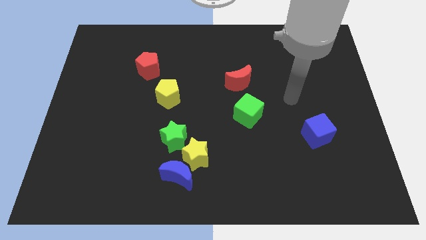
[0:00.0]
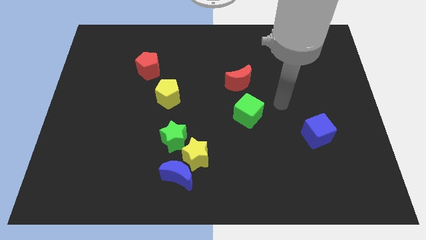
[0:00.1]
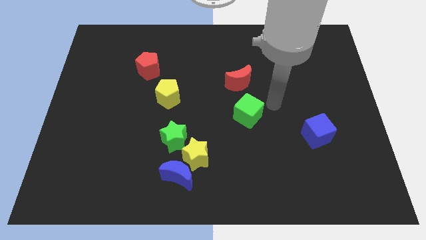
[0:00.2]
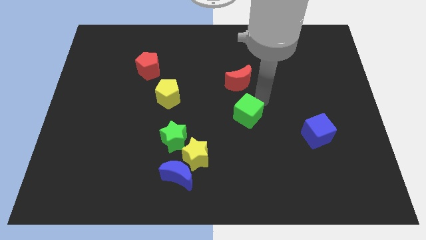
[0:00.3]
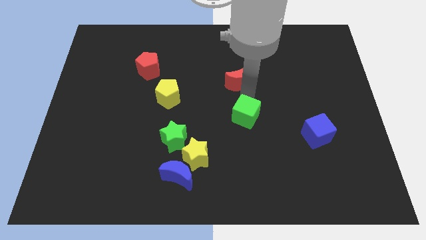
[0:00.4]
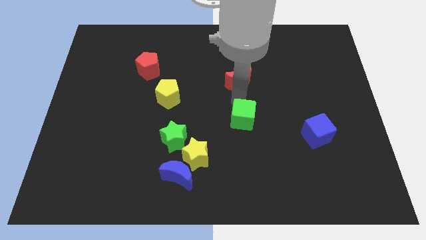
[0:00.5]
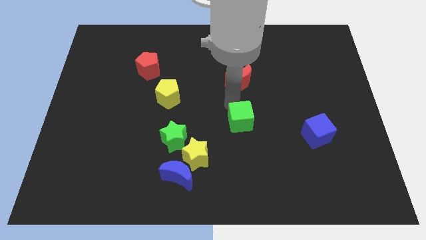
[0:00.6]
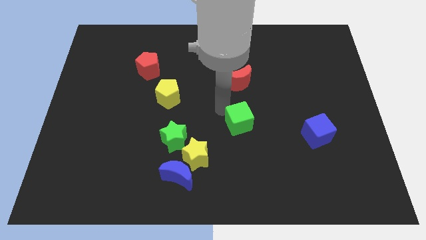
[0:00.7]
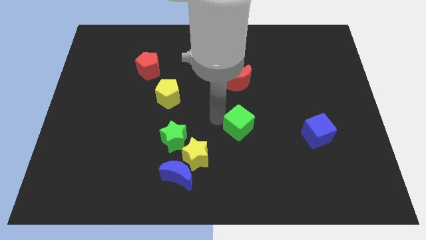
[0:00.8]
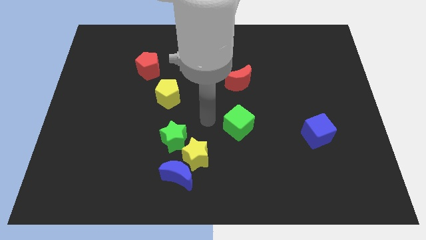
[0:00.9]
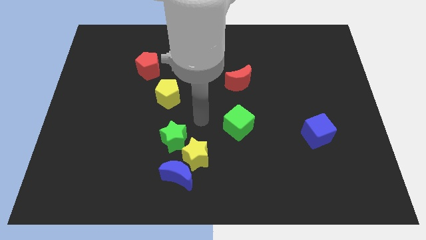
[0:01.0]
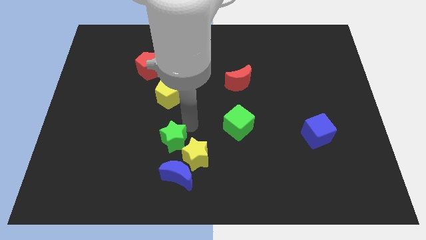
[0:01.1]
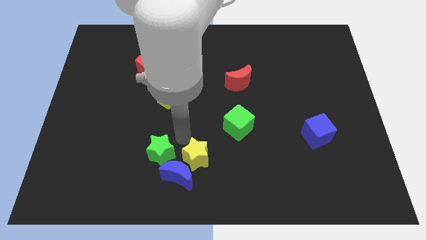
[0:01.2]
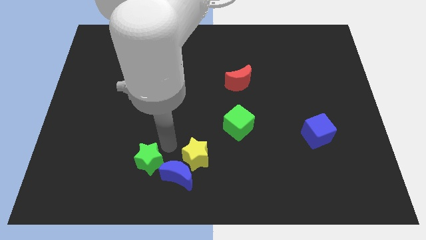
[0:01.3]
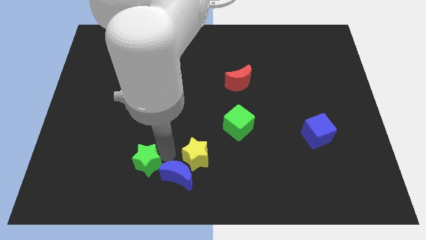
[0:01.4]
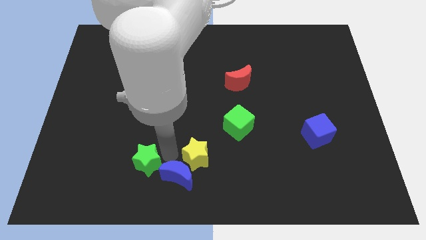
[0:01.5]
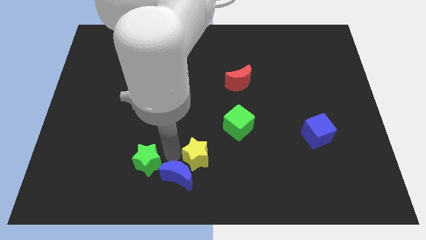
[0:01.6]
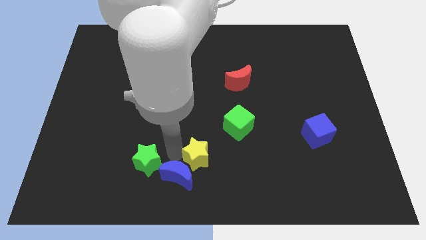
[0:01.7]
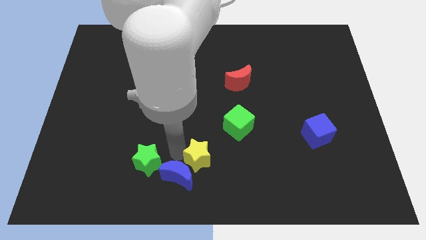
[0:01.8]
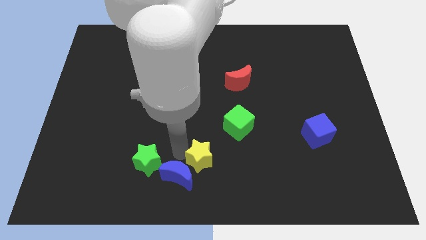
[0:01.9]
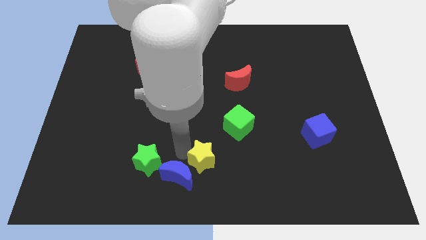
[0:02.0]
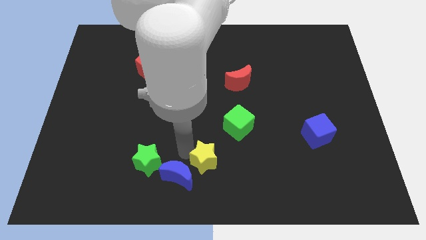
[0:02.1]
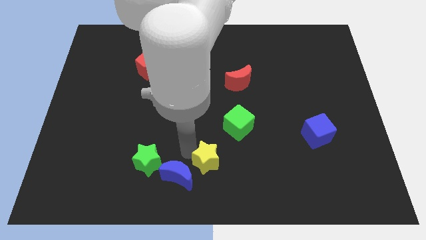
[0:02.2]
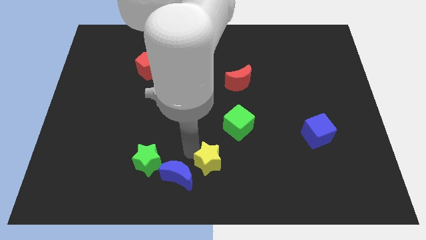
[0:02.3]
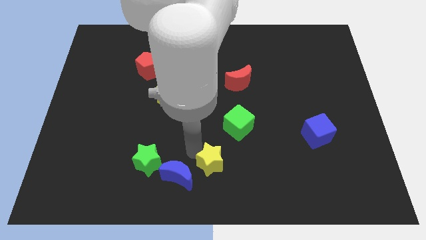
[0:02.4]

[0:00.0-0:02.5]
move the yellow star away from the blue moon and green star

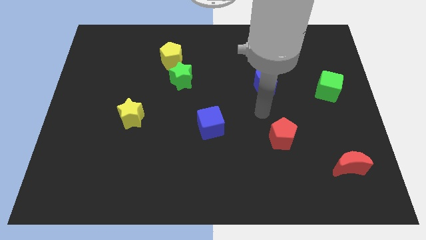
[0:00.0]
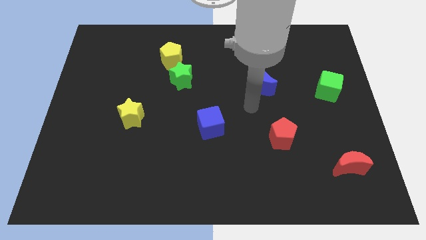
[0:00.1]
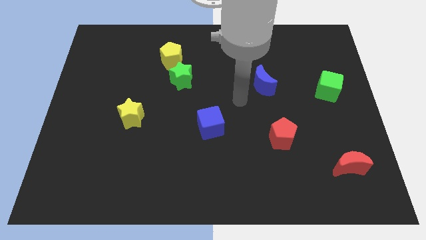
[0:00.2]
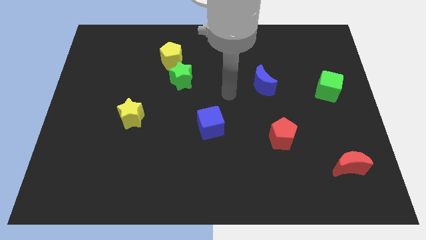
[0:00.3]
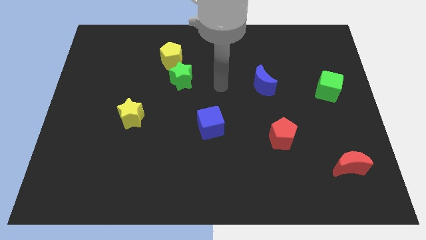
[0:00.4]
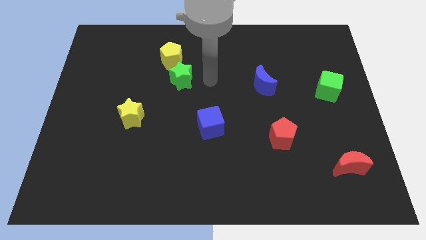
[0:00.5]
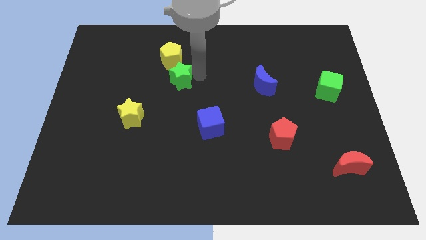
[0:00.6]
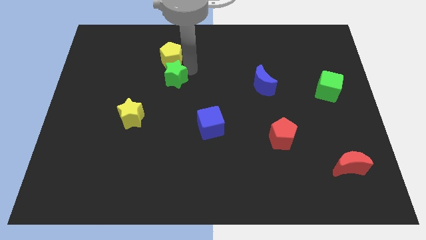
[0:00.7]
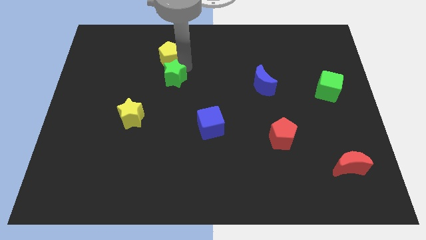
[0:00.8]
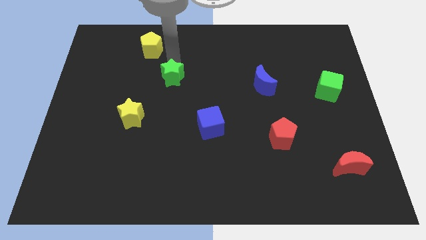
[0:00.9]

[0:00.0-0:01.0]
separate the green star from the yellow pentagon

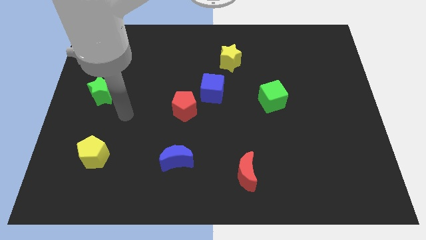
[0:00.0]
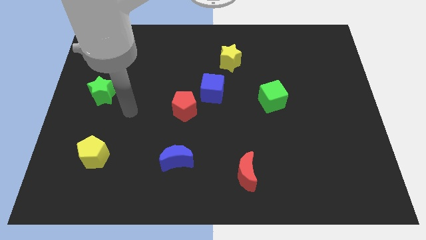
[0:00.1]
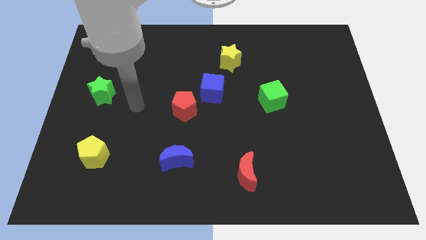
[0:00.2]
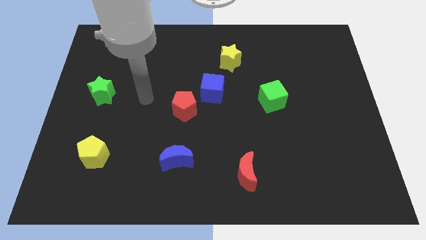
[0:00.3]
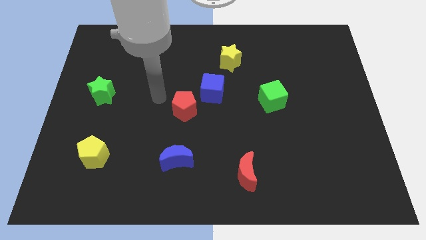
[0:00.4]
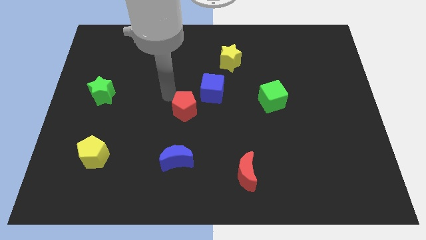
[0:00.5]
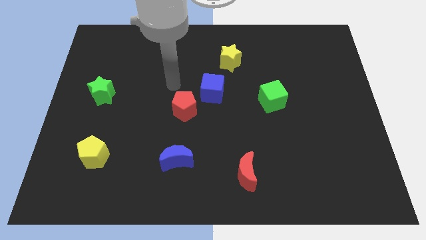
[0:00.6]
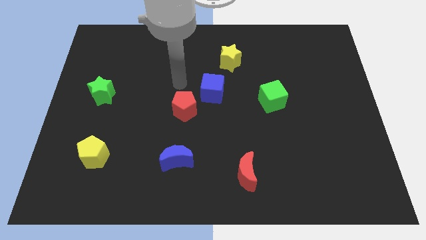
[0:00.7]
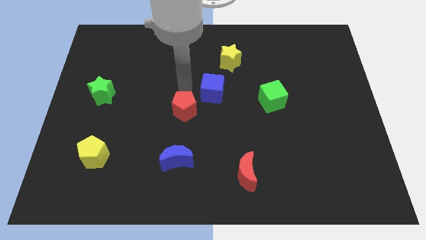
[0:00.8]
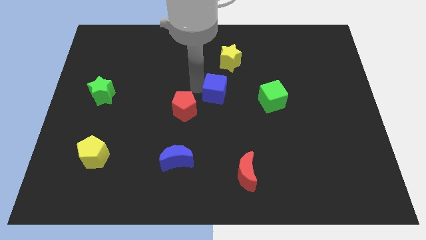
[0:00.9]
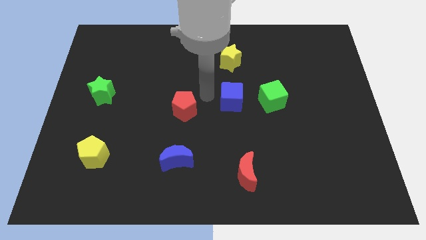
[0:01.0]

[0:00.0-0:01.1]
move the red pentagon away from the blue cube

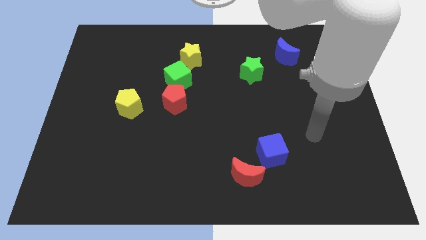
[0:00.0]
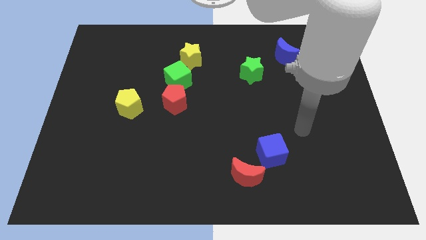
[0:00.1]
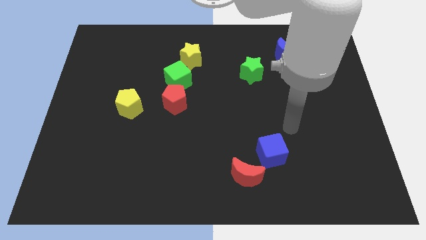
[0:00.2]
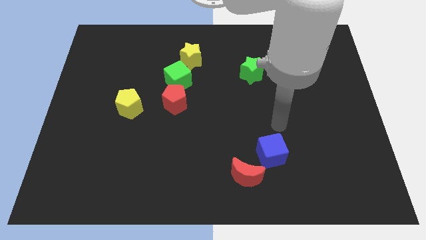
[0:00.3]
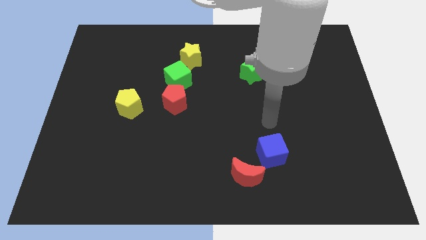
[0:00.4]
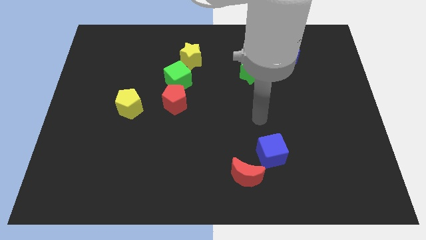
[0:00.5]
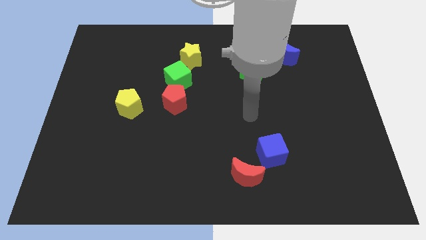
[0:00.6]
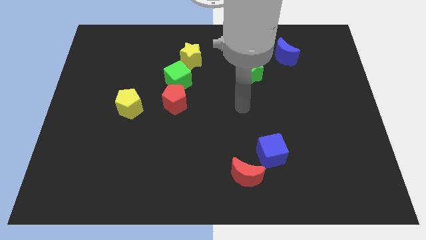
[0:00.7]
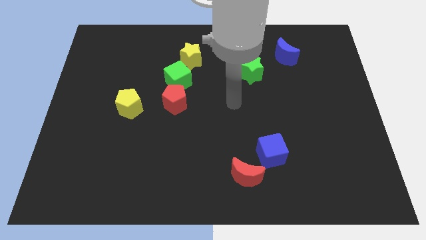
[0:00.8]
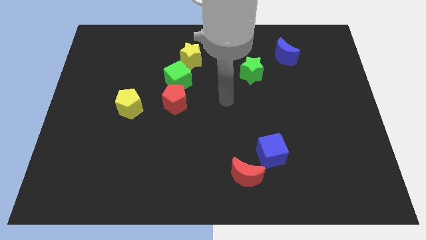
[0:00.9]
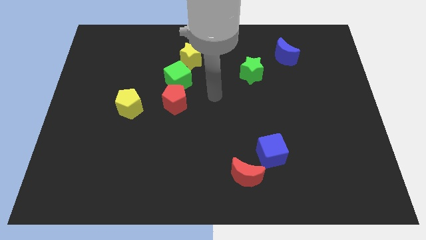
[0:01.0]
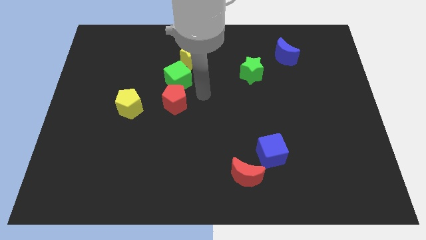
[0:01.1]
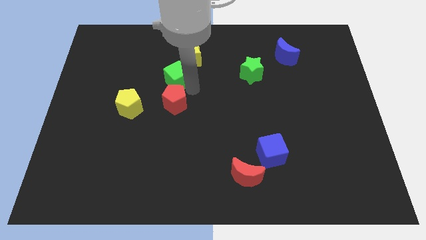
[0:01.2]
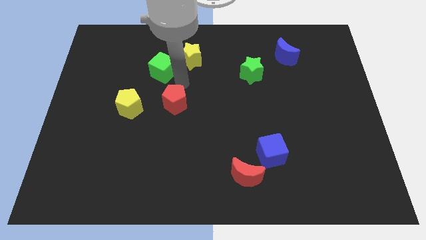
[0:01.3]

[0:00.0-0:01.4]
separate the red pentagon from the green cube

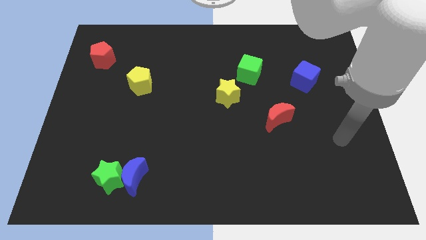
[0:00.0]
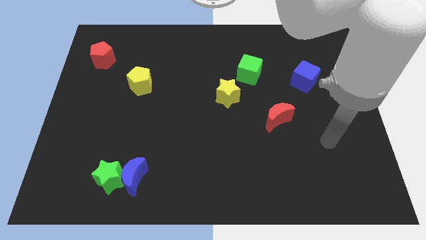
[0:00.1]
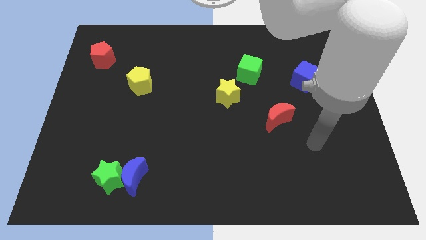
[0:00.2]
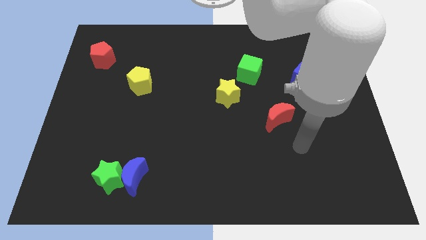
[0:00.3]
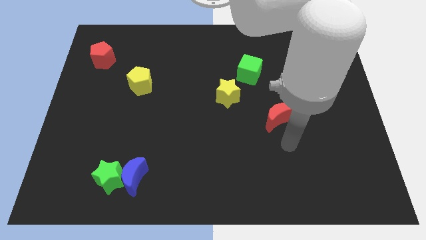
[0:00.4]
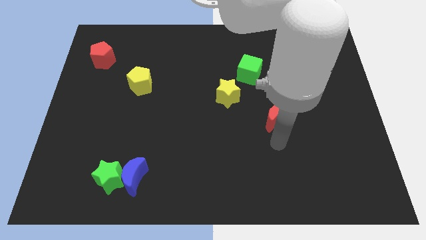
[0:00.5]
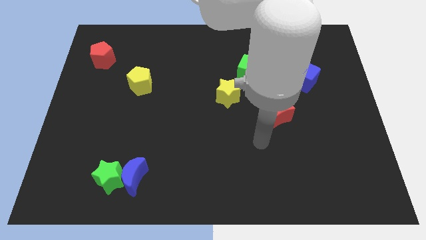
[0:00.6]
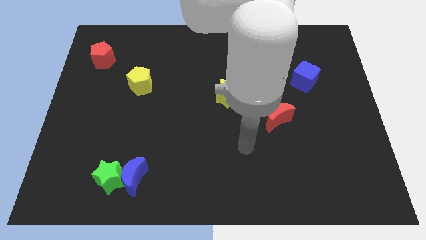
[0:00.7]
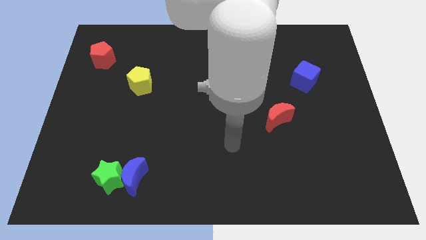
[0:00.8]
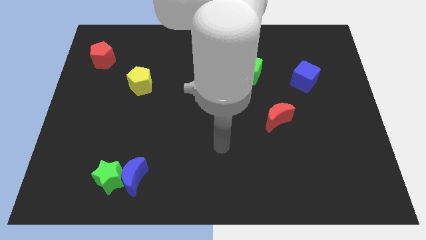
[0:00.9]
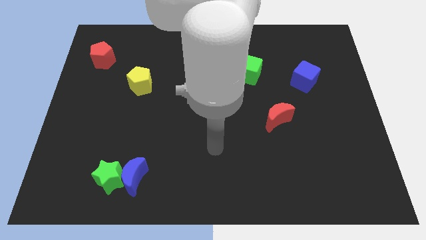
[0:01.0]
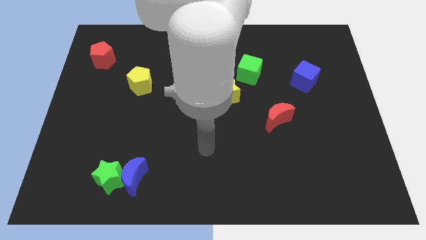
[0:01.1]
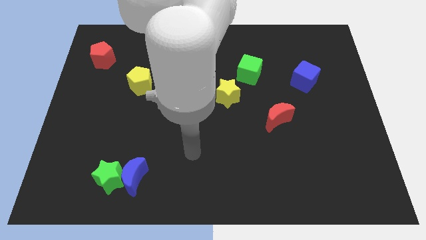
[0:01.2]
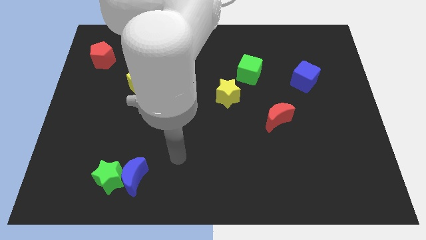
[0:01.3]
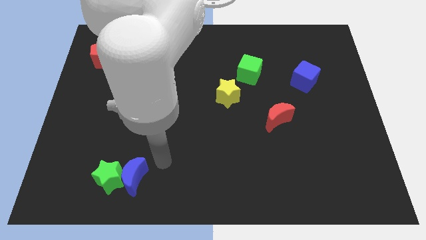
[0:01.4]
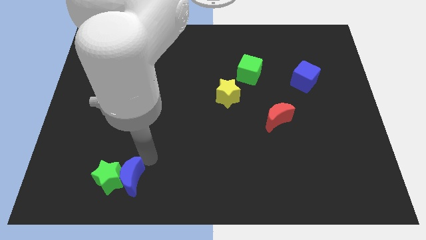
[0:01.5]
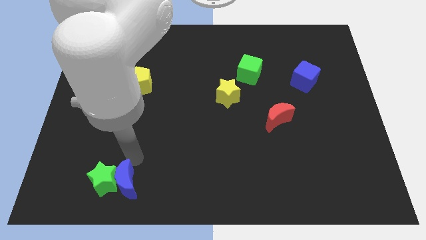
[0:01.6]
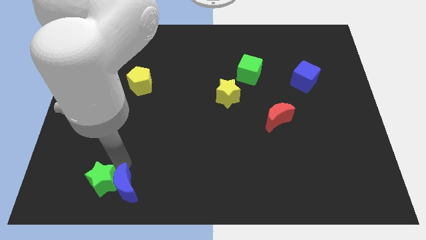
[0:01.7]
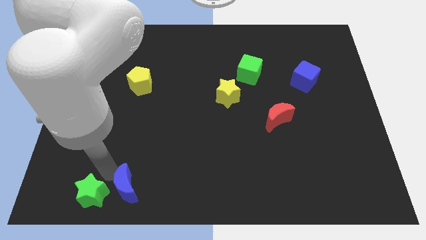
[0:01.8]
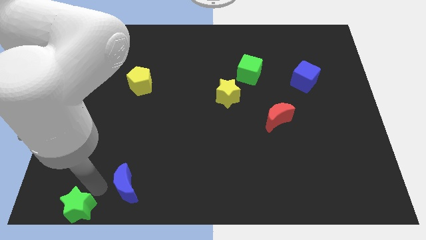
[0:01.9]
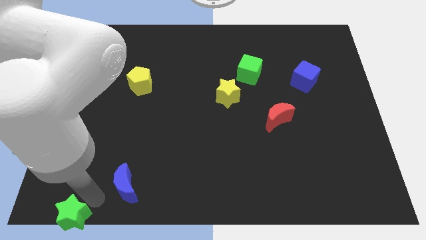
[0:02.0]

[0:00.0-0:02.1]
separate the blue moon from the green star

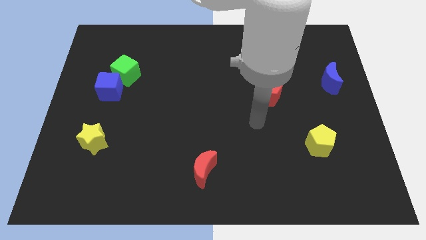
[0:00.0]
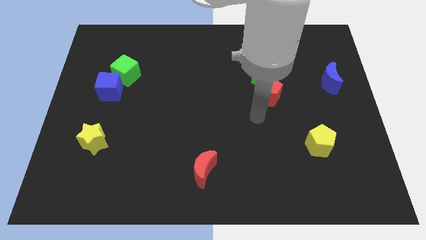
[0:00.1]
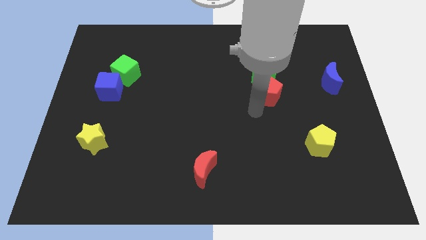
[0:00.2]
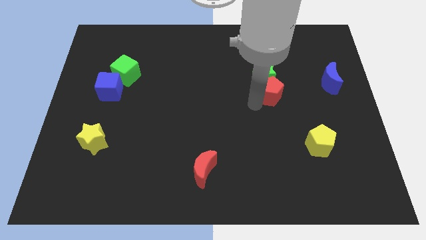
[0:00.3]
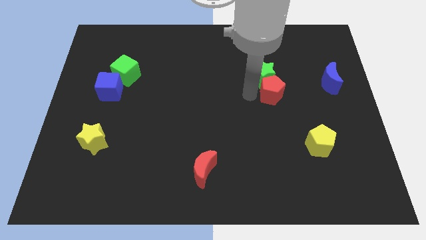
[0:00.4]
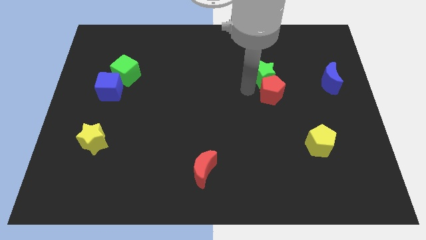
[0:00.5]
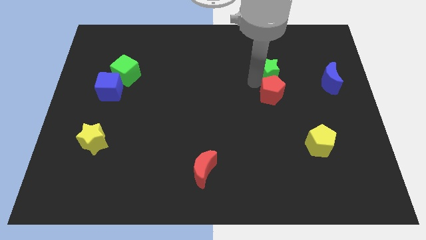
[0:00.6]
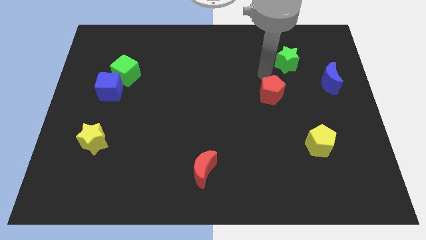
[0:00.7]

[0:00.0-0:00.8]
separate the red pentagon from the green star

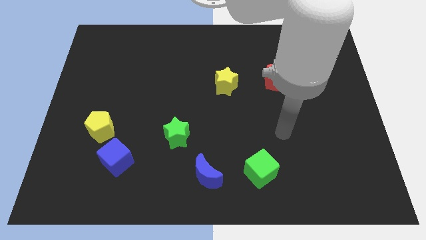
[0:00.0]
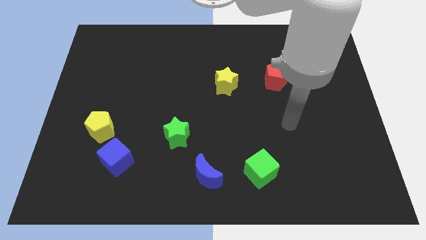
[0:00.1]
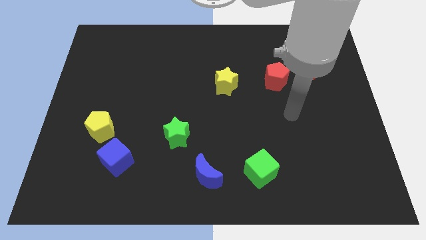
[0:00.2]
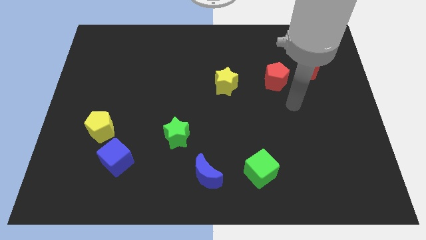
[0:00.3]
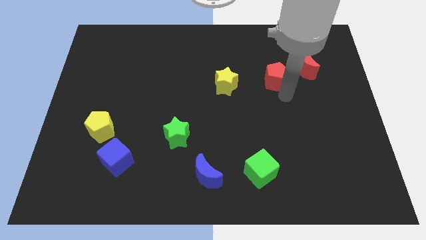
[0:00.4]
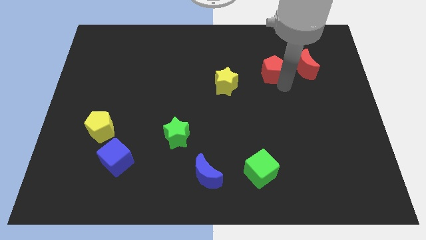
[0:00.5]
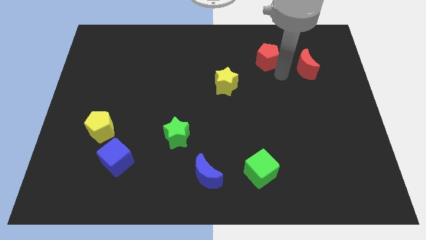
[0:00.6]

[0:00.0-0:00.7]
move the red moon away from the red pentagon
